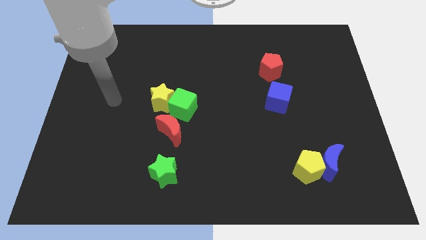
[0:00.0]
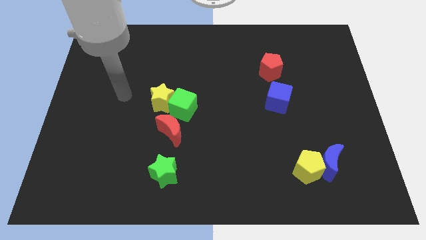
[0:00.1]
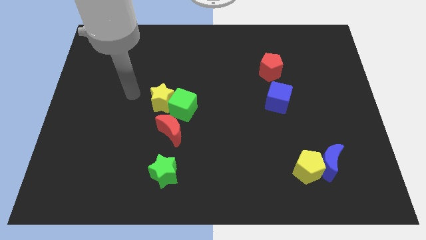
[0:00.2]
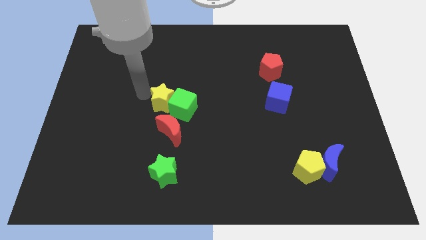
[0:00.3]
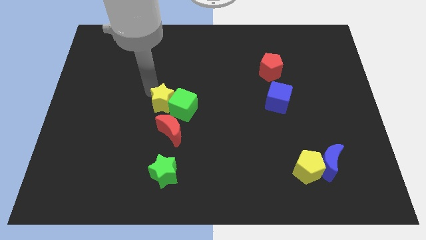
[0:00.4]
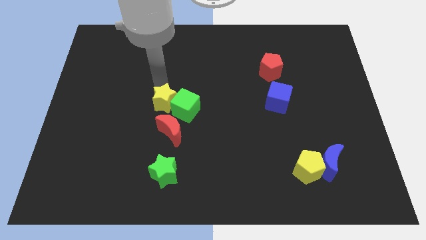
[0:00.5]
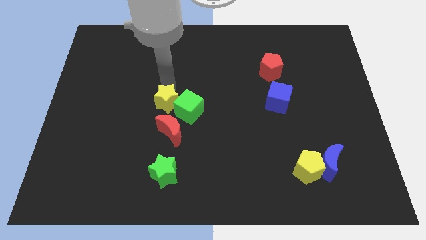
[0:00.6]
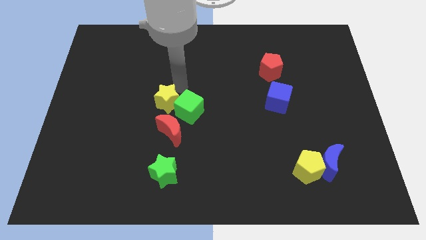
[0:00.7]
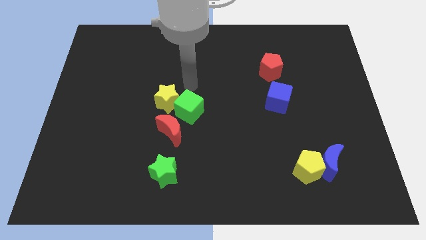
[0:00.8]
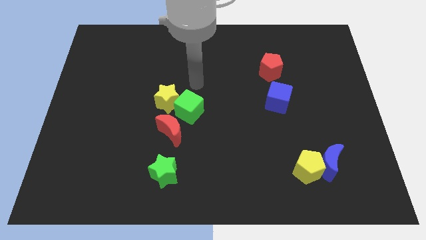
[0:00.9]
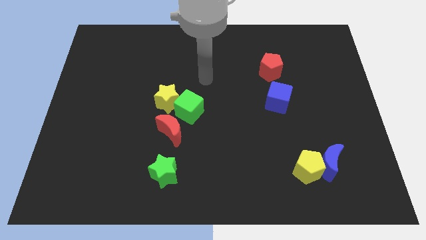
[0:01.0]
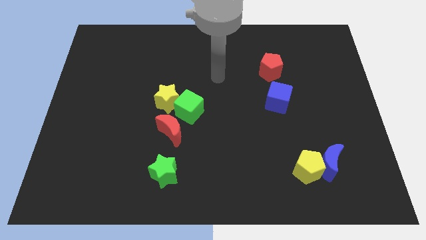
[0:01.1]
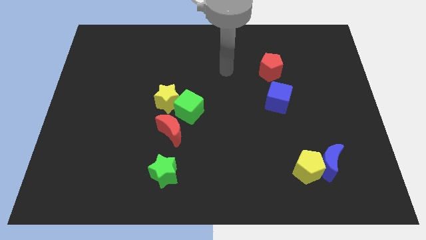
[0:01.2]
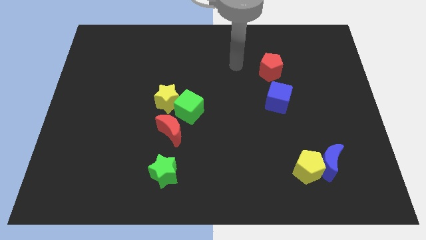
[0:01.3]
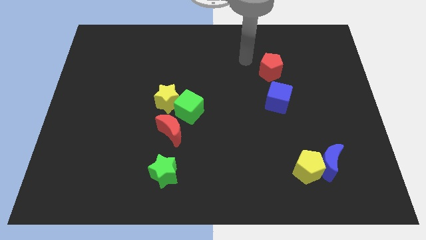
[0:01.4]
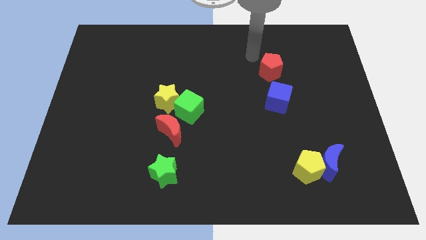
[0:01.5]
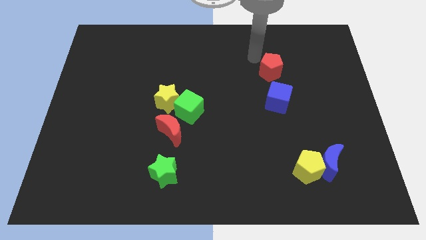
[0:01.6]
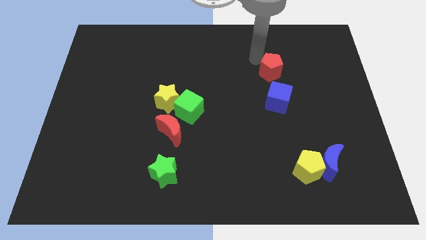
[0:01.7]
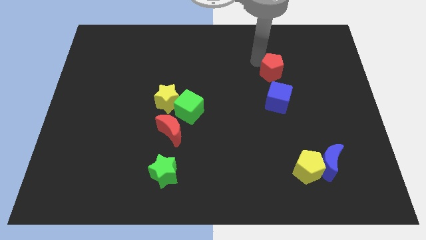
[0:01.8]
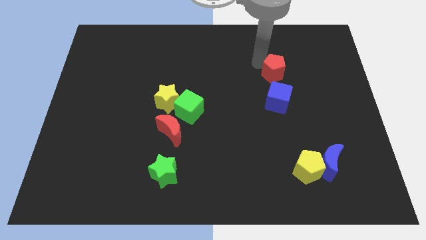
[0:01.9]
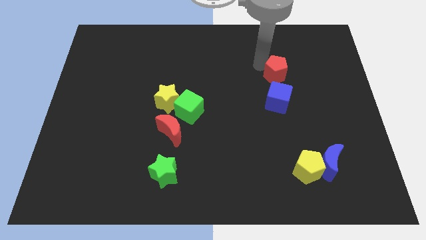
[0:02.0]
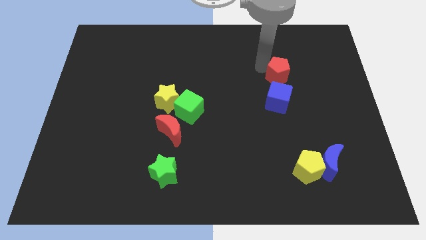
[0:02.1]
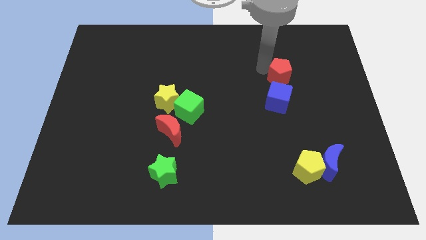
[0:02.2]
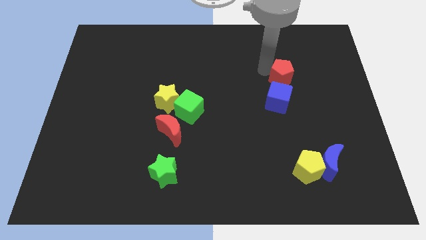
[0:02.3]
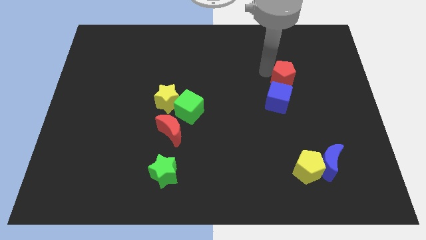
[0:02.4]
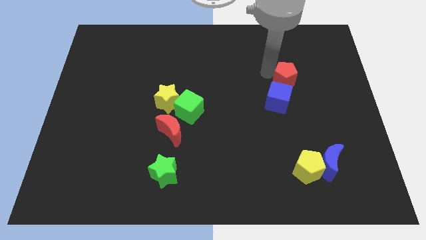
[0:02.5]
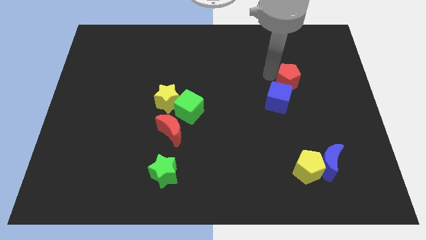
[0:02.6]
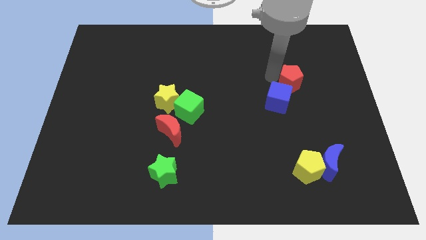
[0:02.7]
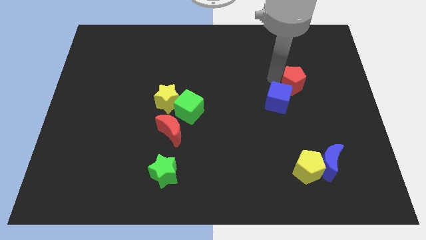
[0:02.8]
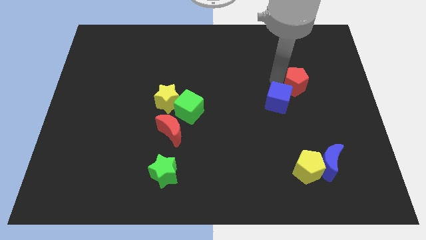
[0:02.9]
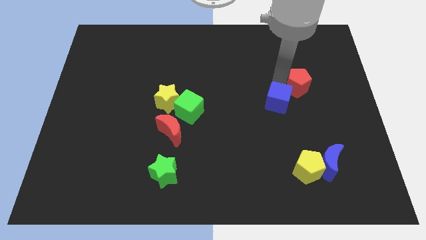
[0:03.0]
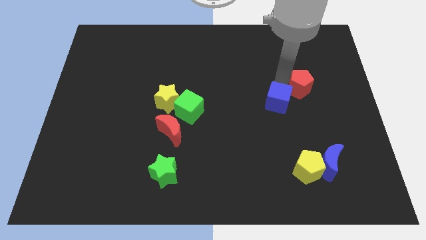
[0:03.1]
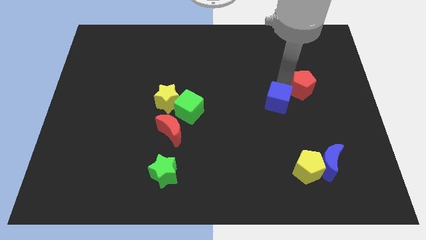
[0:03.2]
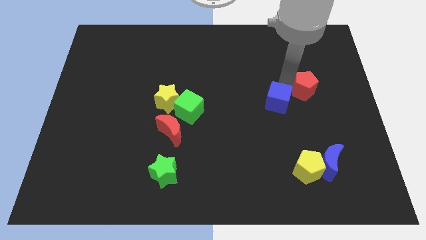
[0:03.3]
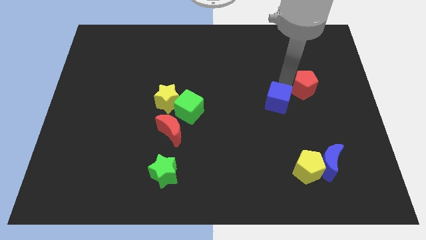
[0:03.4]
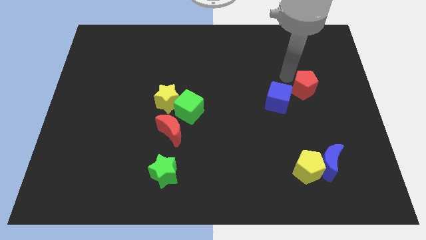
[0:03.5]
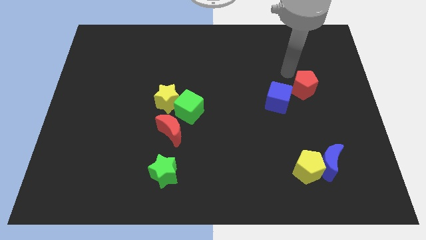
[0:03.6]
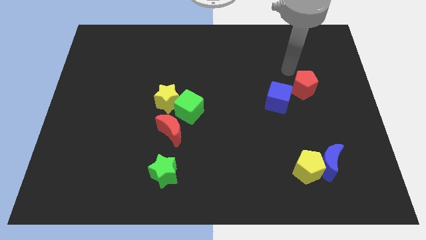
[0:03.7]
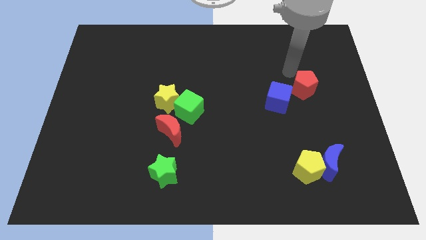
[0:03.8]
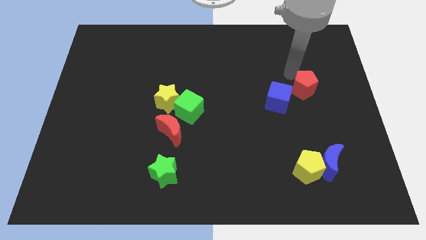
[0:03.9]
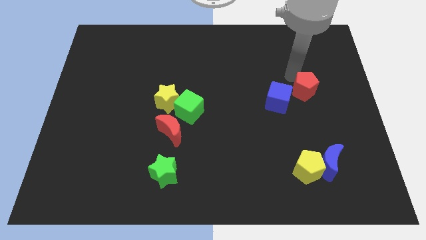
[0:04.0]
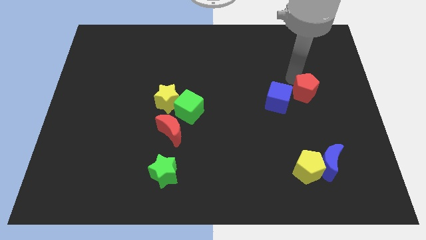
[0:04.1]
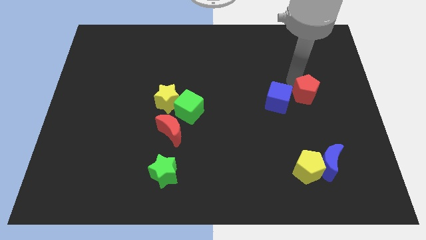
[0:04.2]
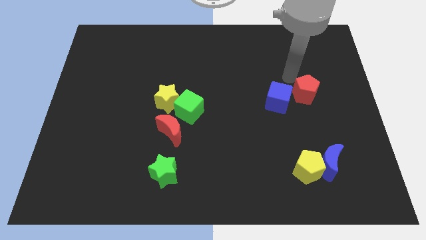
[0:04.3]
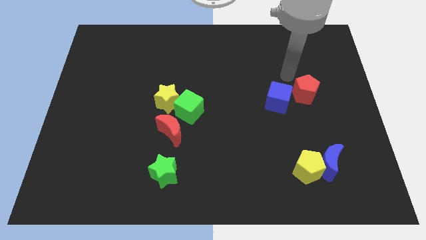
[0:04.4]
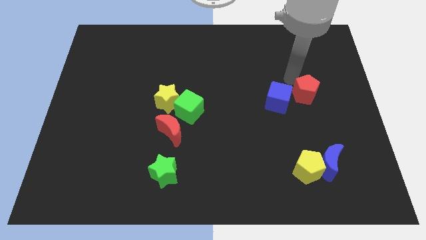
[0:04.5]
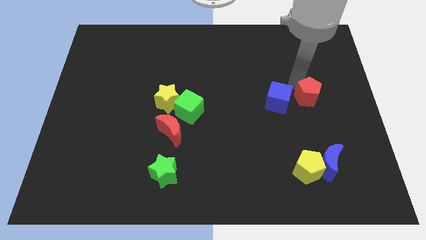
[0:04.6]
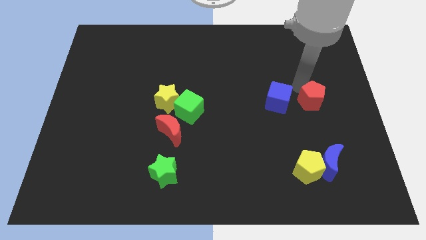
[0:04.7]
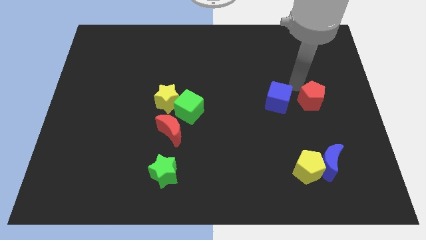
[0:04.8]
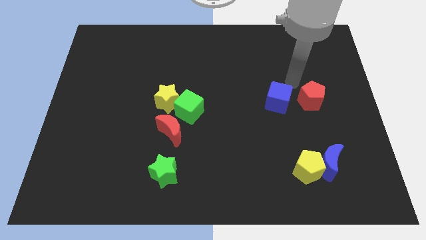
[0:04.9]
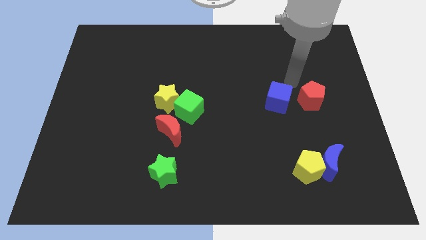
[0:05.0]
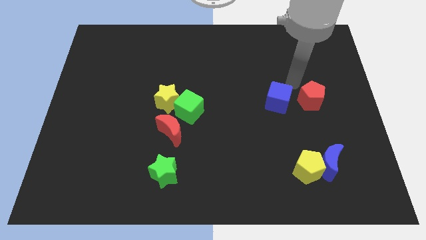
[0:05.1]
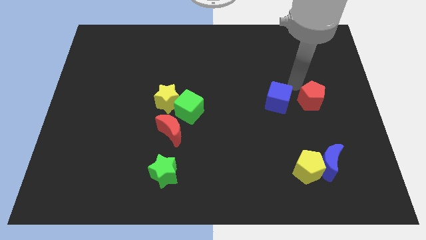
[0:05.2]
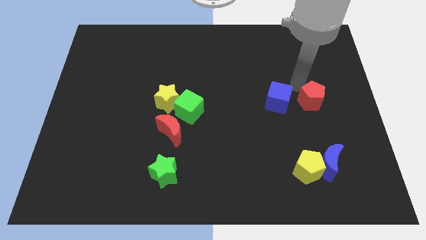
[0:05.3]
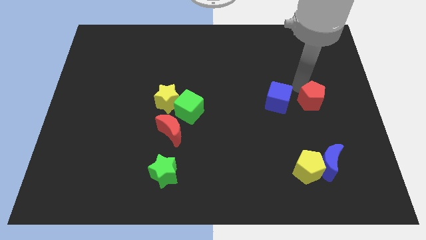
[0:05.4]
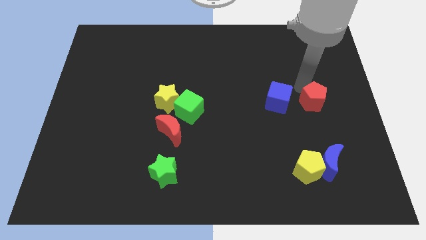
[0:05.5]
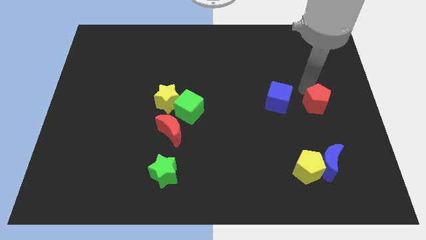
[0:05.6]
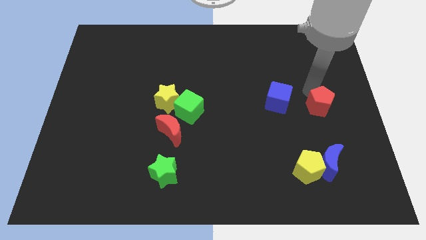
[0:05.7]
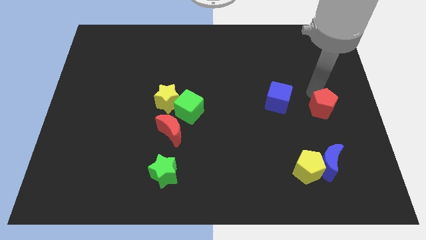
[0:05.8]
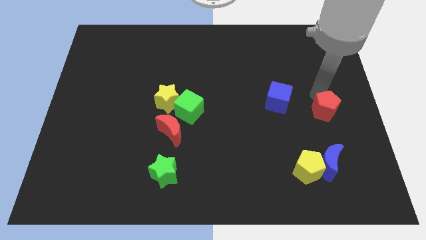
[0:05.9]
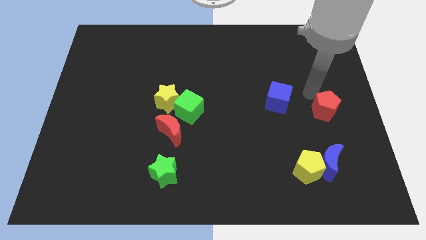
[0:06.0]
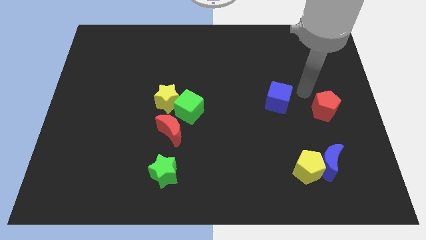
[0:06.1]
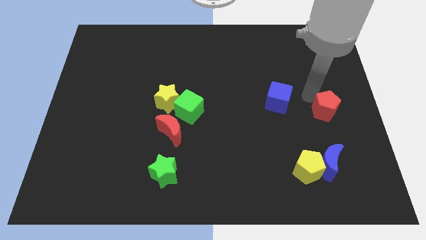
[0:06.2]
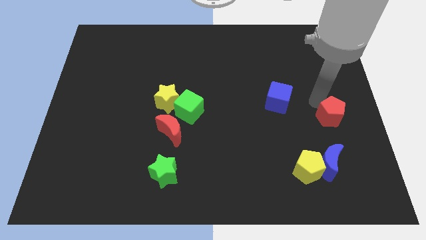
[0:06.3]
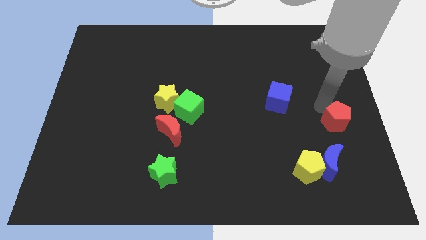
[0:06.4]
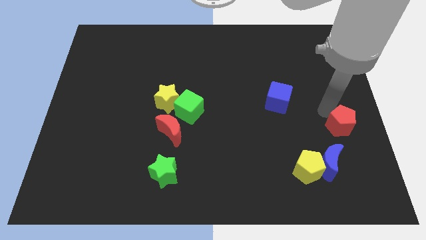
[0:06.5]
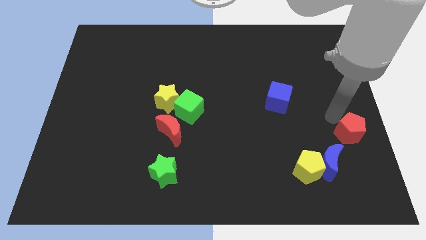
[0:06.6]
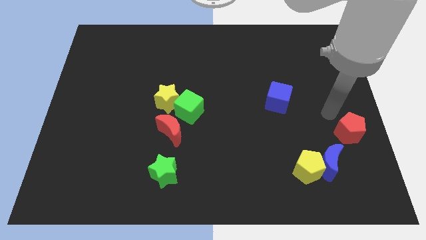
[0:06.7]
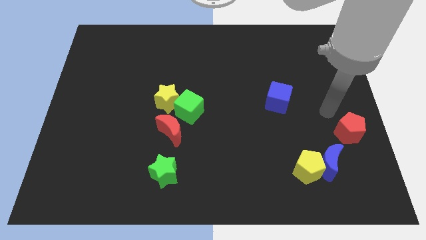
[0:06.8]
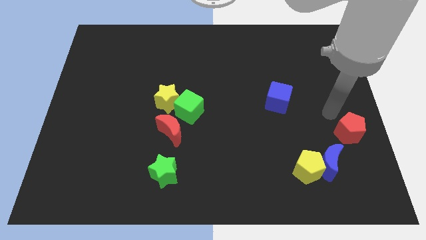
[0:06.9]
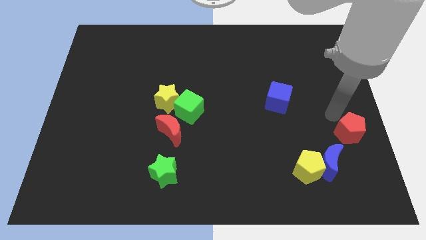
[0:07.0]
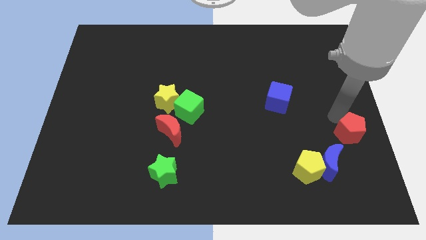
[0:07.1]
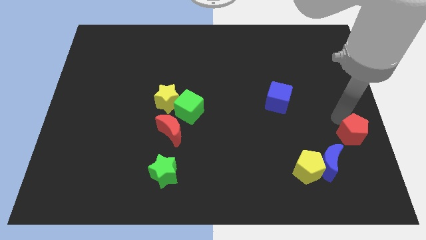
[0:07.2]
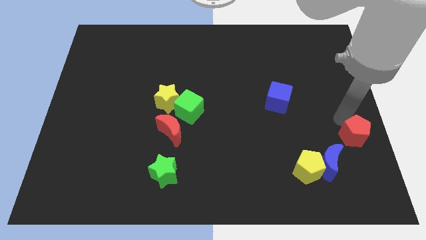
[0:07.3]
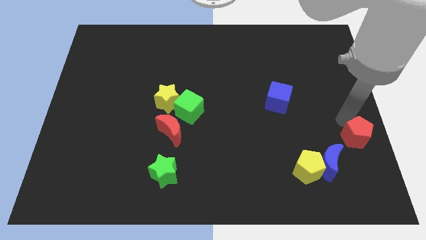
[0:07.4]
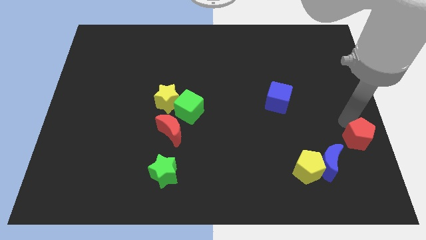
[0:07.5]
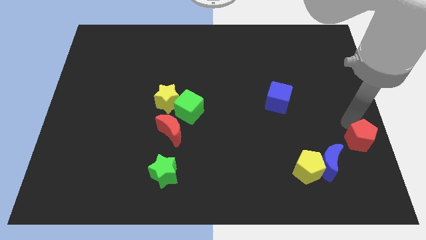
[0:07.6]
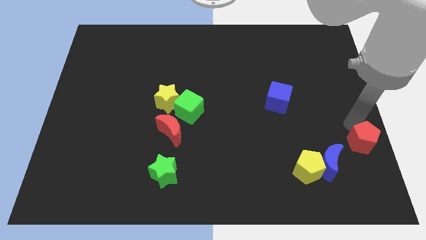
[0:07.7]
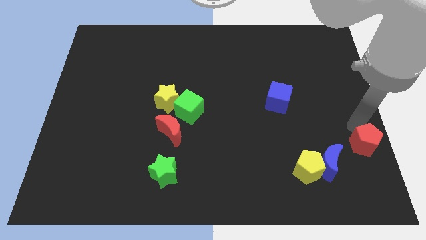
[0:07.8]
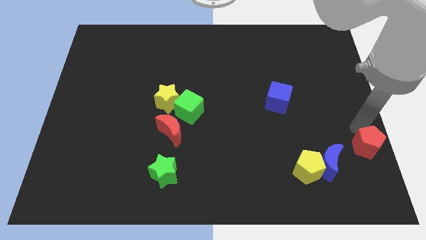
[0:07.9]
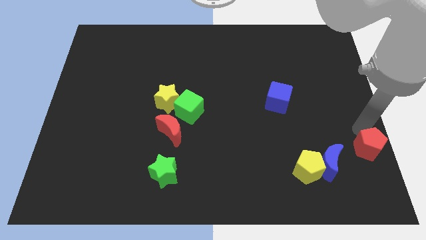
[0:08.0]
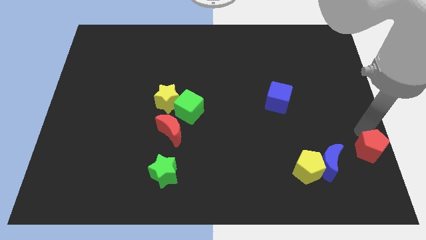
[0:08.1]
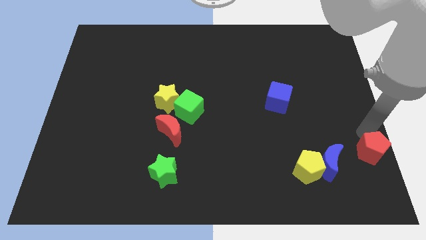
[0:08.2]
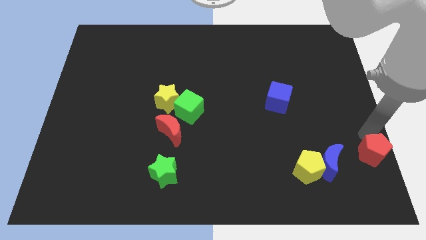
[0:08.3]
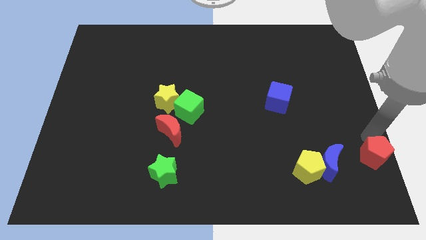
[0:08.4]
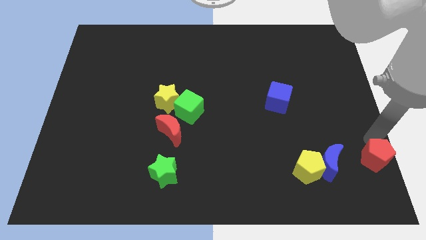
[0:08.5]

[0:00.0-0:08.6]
push the red pentagon to the bottom right corner
